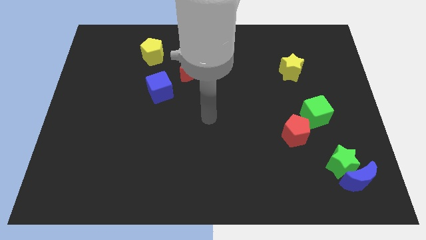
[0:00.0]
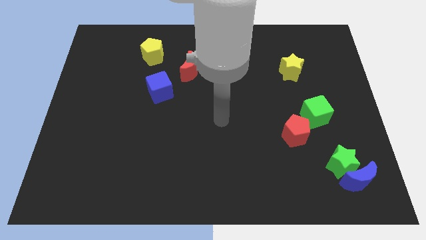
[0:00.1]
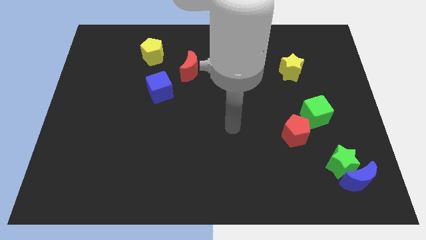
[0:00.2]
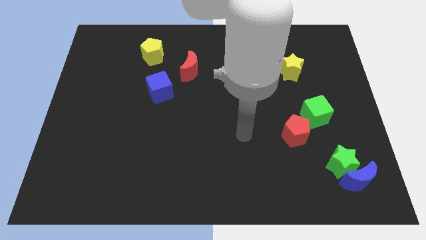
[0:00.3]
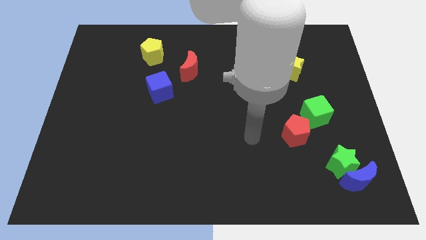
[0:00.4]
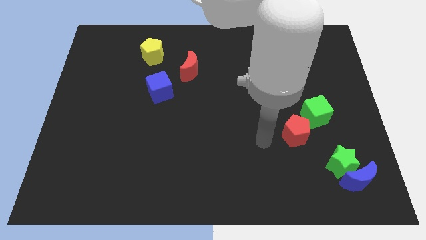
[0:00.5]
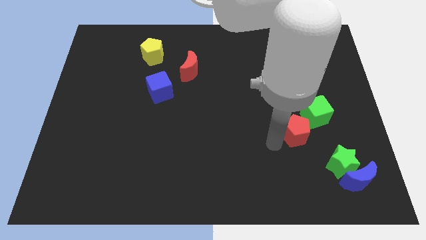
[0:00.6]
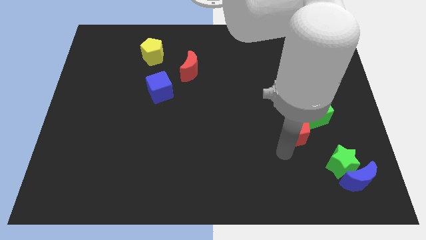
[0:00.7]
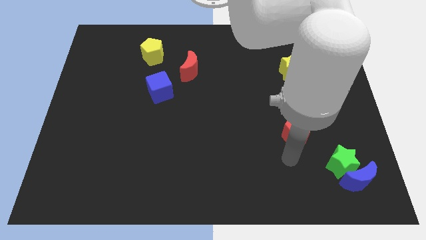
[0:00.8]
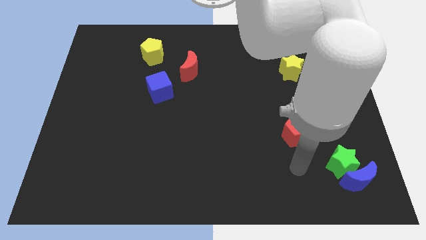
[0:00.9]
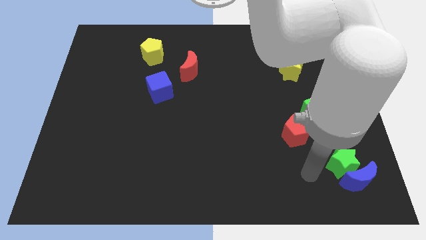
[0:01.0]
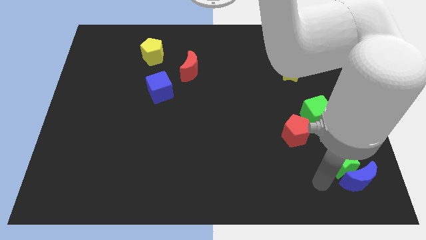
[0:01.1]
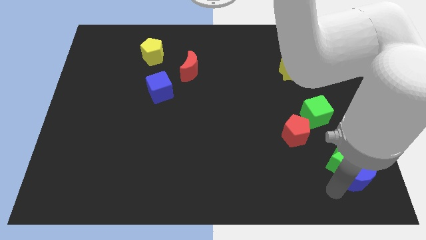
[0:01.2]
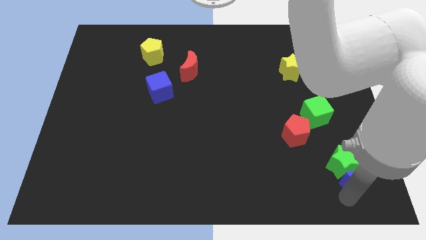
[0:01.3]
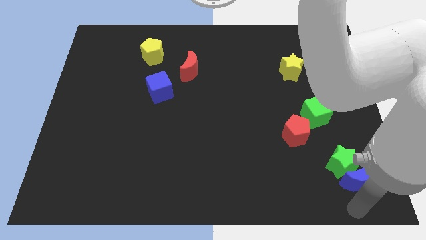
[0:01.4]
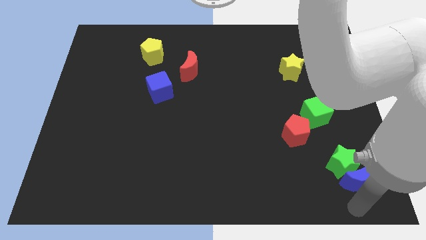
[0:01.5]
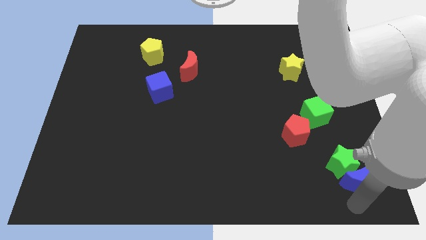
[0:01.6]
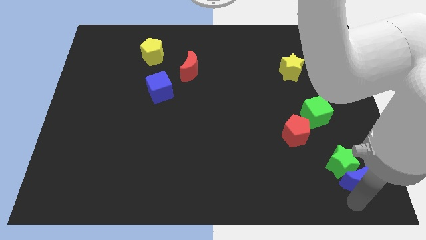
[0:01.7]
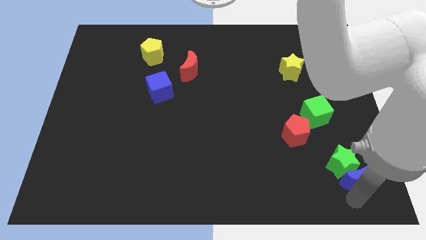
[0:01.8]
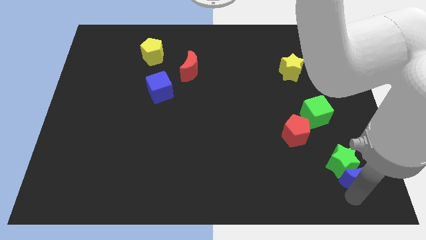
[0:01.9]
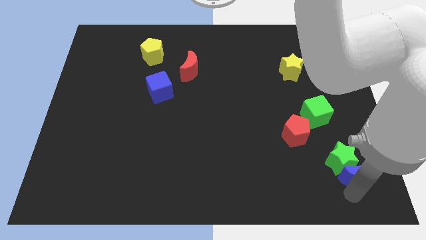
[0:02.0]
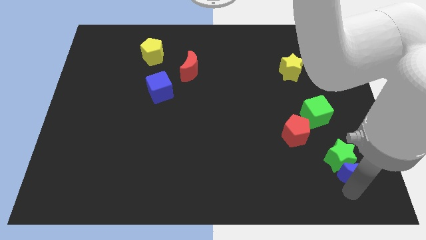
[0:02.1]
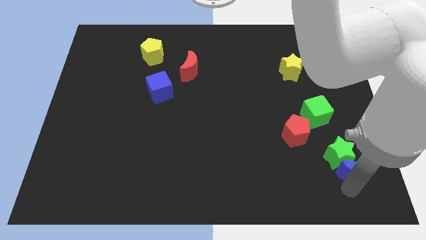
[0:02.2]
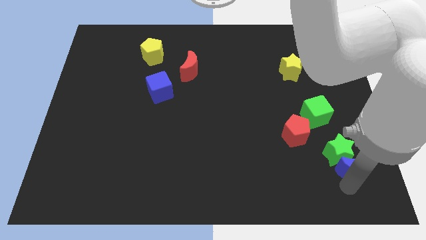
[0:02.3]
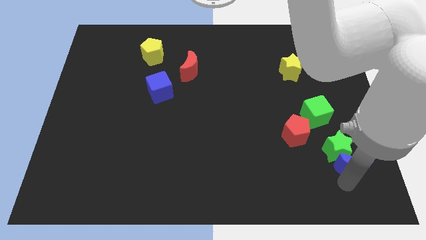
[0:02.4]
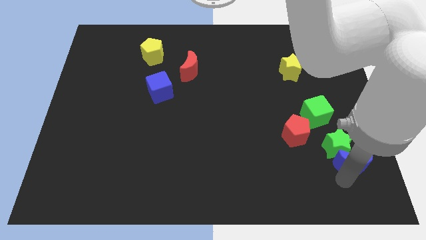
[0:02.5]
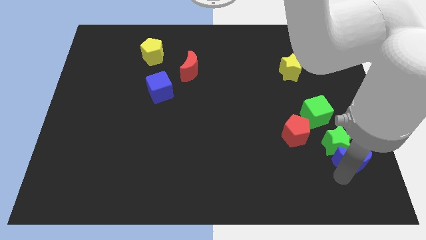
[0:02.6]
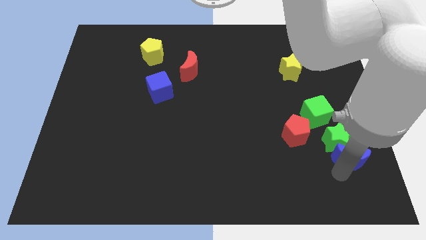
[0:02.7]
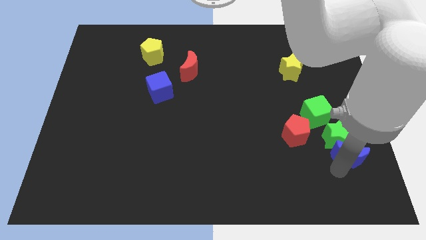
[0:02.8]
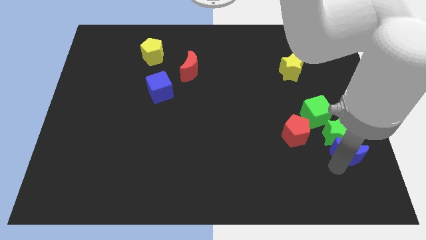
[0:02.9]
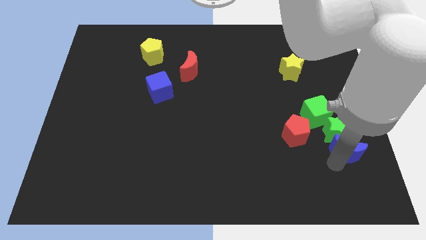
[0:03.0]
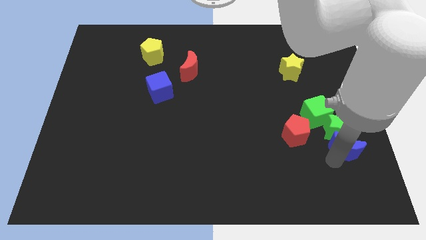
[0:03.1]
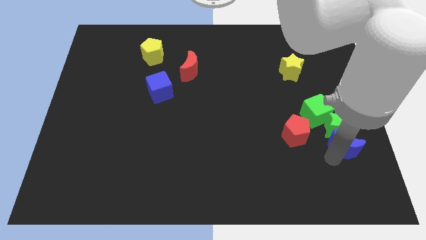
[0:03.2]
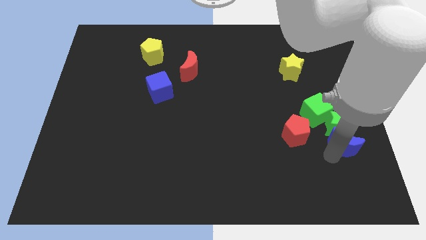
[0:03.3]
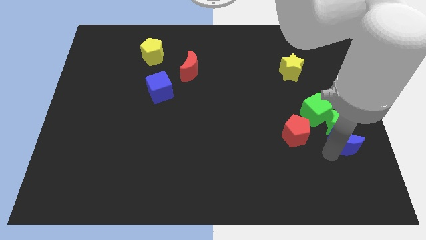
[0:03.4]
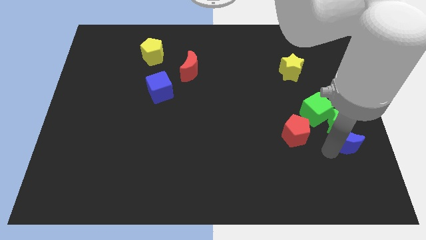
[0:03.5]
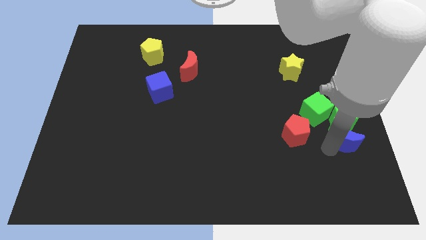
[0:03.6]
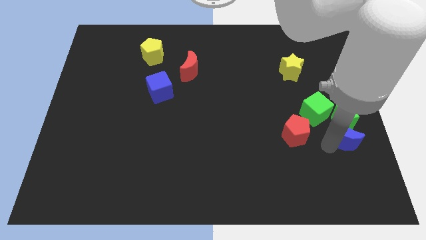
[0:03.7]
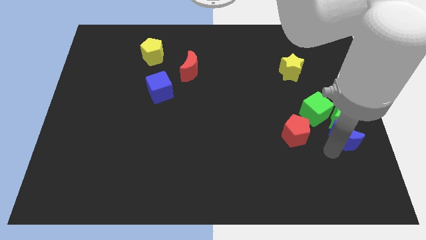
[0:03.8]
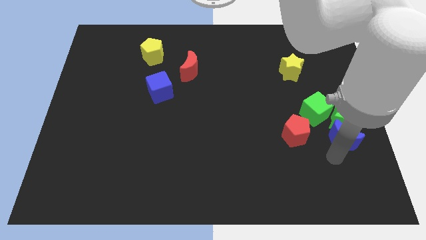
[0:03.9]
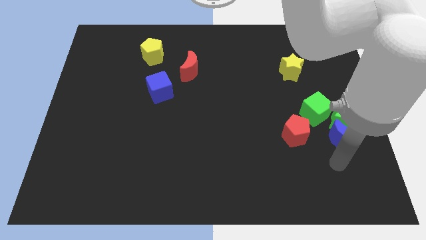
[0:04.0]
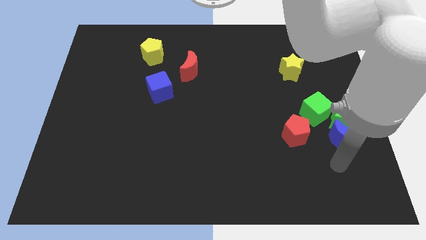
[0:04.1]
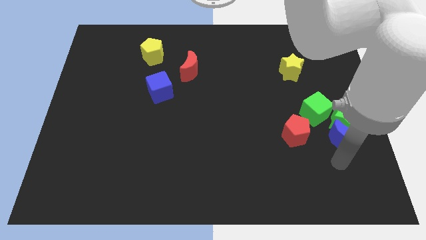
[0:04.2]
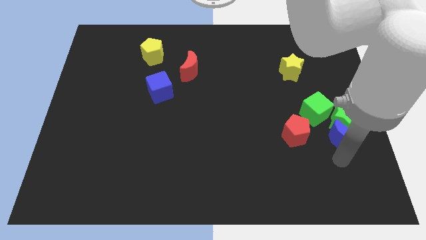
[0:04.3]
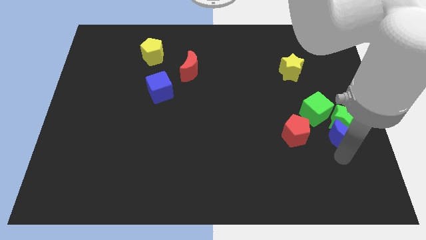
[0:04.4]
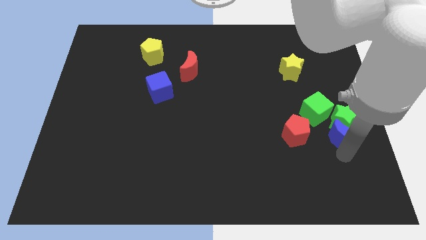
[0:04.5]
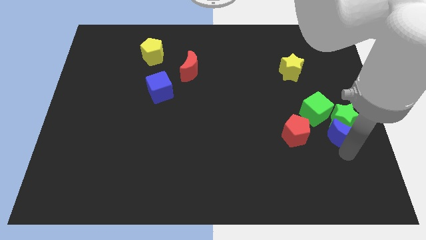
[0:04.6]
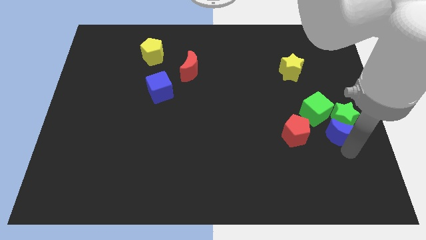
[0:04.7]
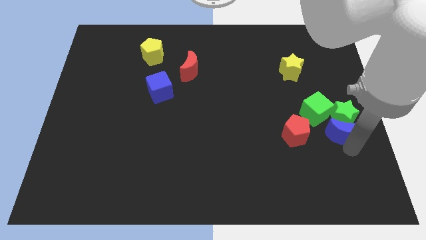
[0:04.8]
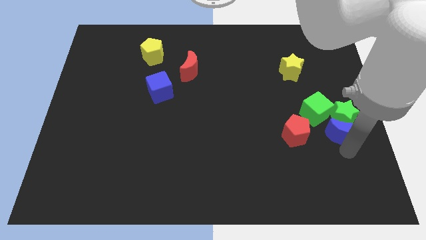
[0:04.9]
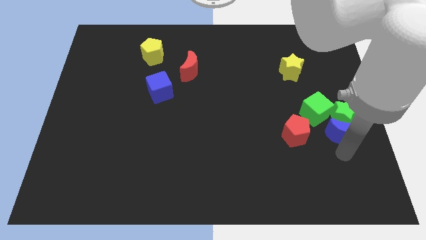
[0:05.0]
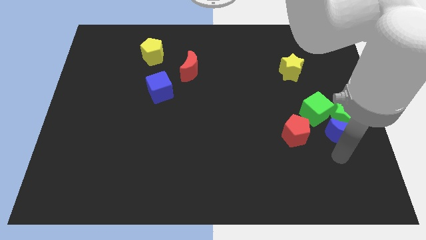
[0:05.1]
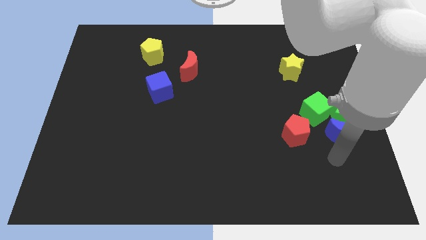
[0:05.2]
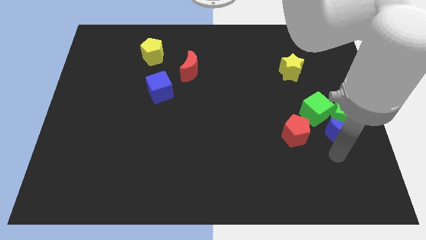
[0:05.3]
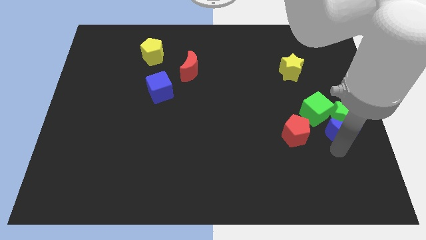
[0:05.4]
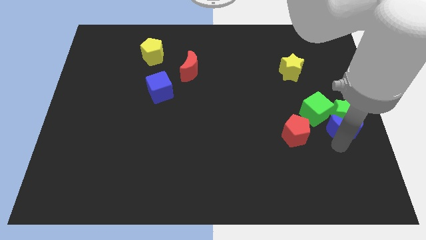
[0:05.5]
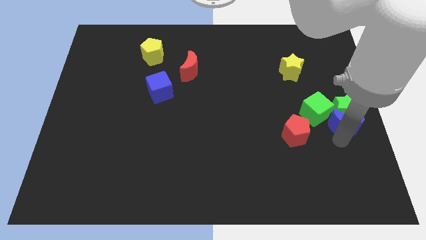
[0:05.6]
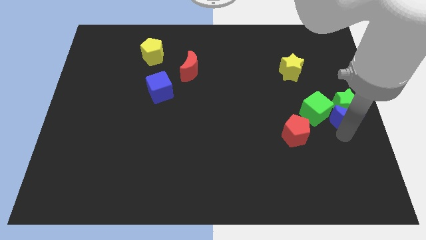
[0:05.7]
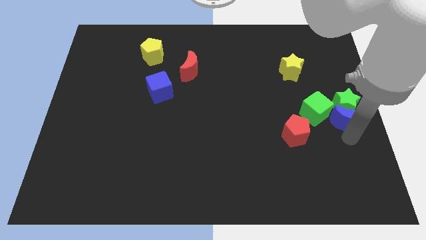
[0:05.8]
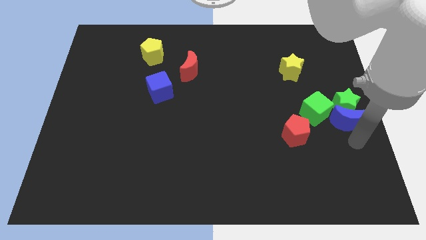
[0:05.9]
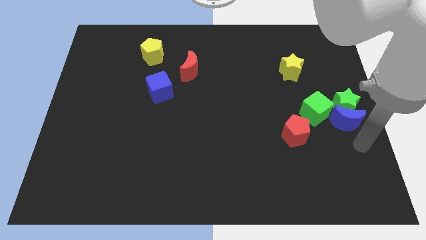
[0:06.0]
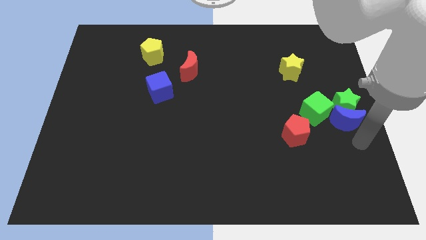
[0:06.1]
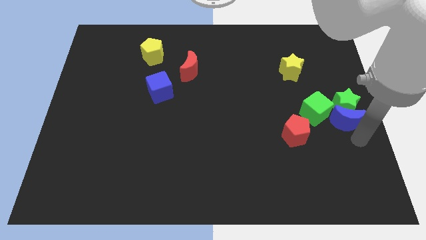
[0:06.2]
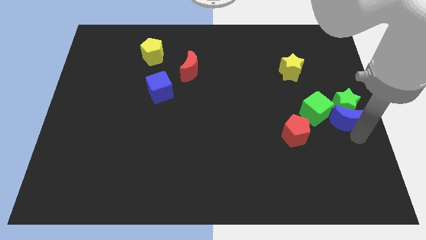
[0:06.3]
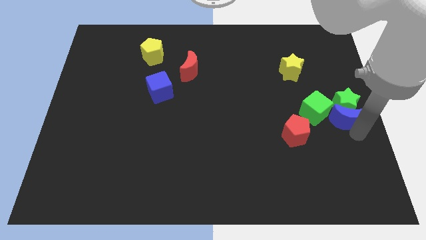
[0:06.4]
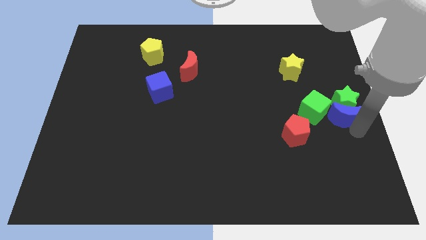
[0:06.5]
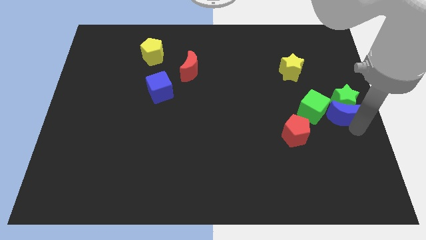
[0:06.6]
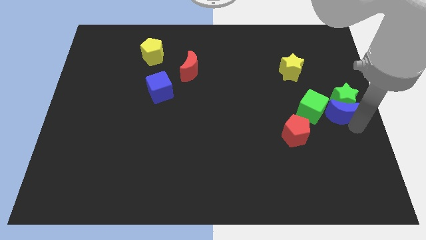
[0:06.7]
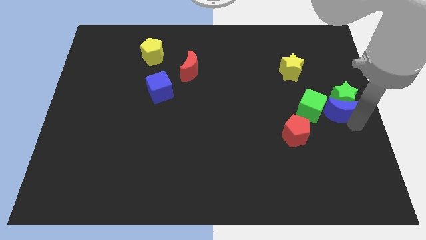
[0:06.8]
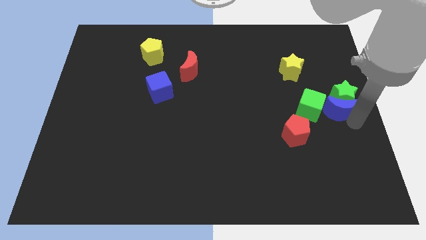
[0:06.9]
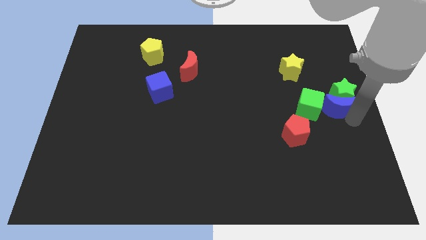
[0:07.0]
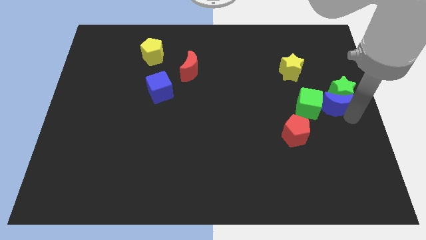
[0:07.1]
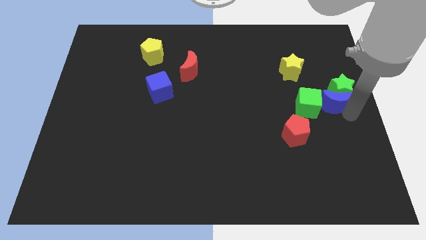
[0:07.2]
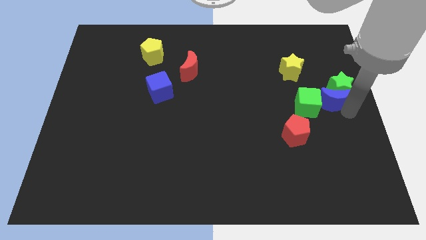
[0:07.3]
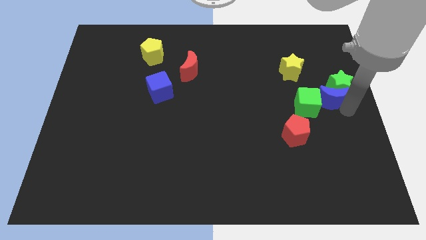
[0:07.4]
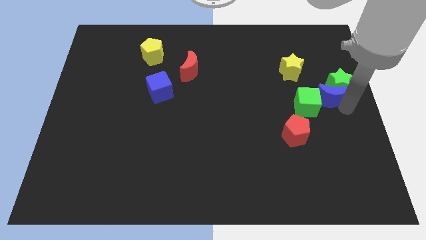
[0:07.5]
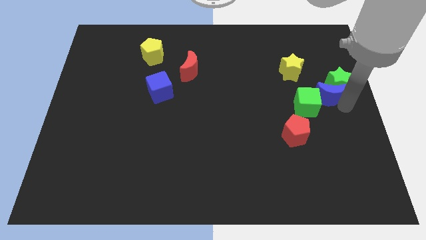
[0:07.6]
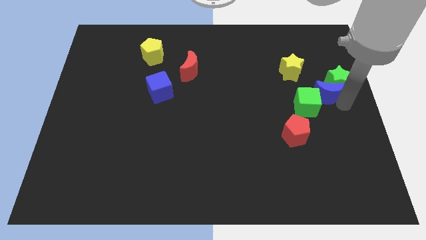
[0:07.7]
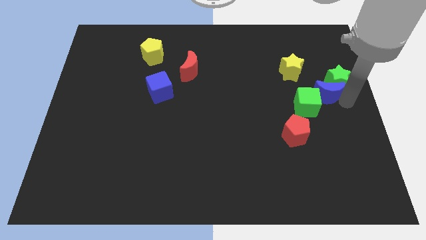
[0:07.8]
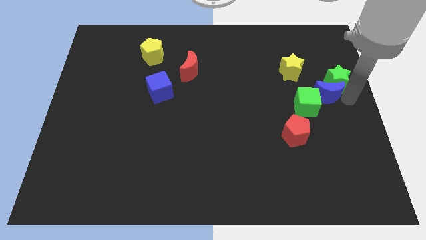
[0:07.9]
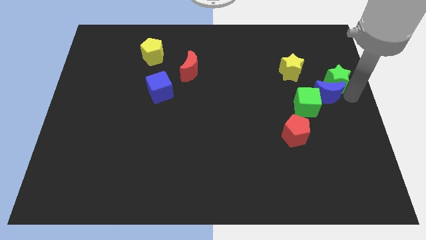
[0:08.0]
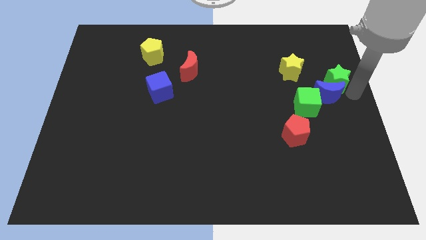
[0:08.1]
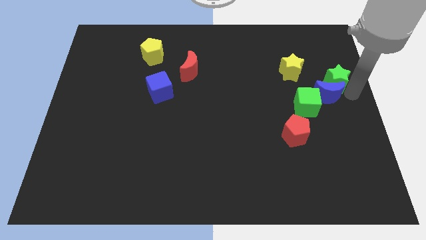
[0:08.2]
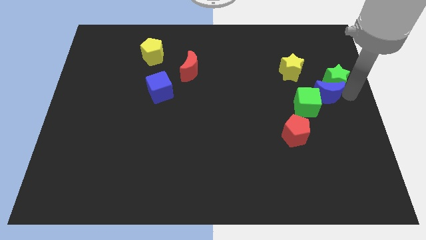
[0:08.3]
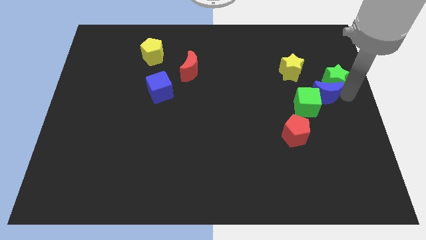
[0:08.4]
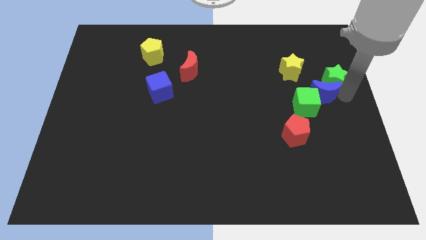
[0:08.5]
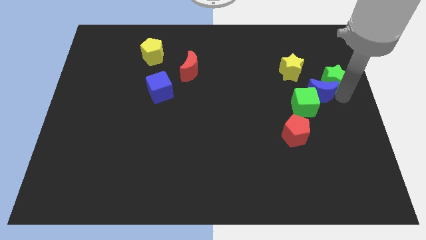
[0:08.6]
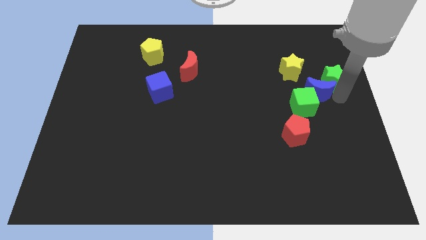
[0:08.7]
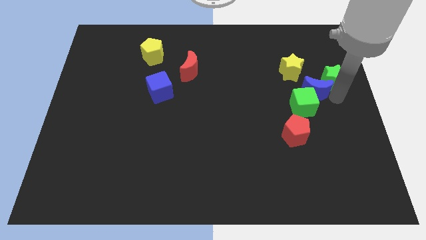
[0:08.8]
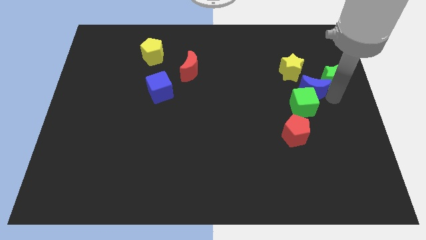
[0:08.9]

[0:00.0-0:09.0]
slide the blue moon below the yellow star
